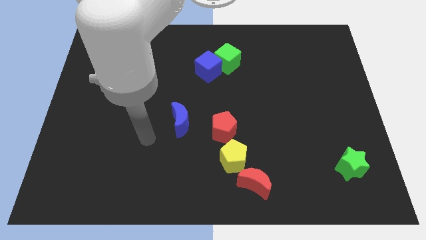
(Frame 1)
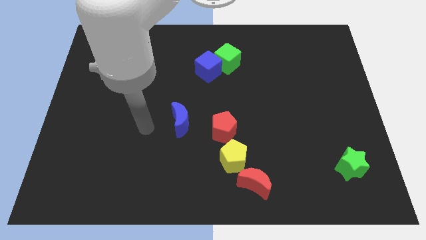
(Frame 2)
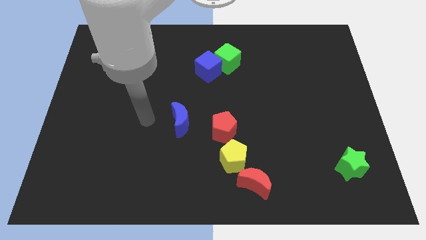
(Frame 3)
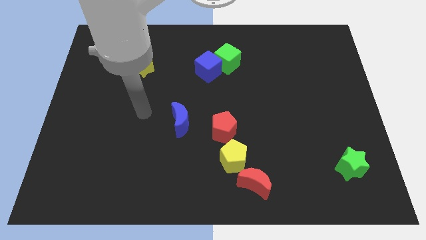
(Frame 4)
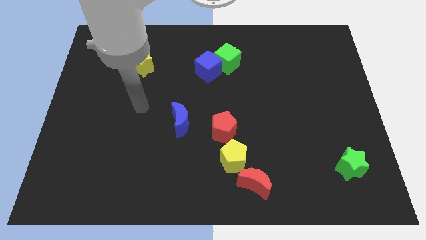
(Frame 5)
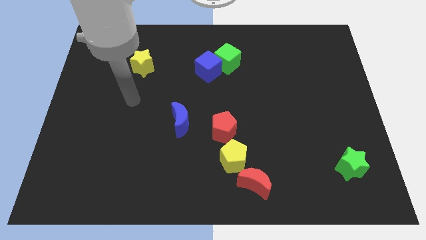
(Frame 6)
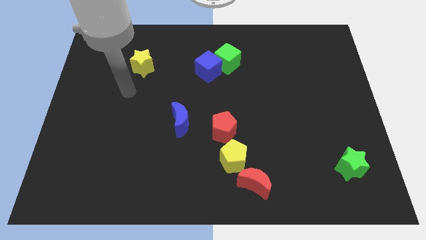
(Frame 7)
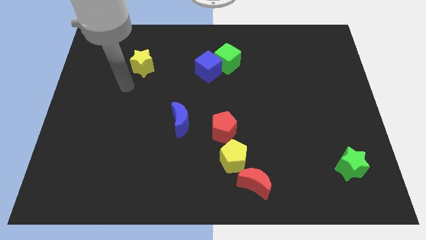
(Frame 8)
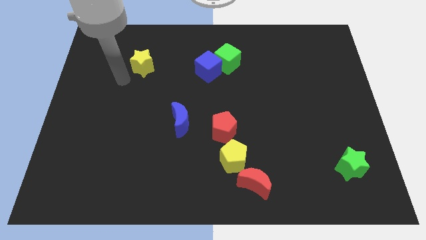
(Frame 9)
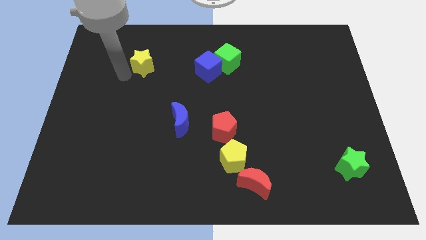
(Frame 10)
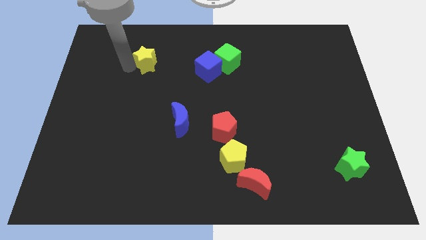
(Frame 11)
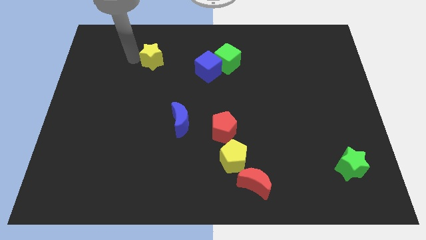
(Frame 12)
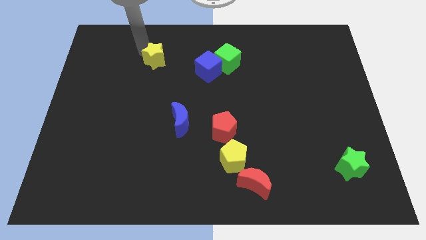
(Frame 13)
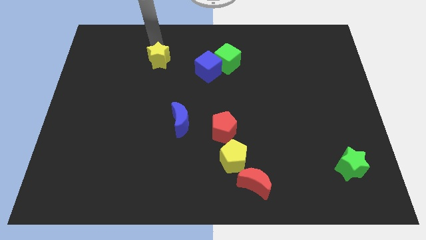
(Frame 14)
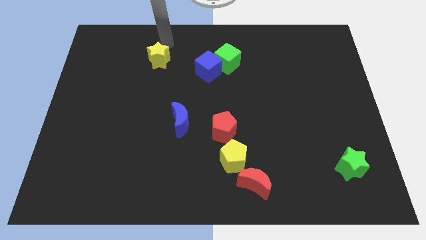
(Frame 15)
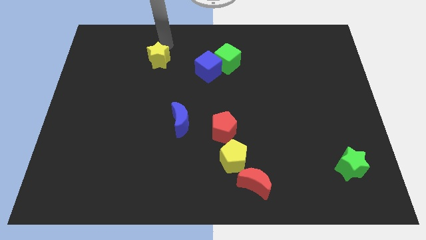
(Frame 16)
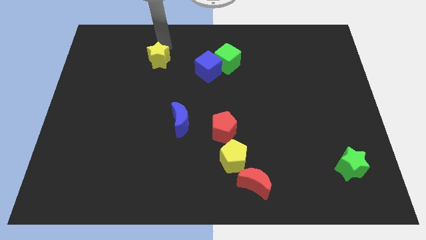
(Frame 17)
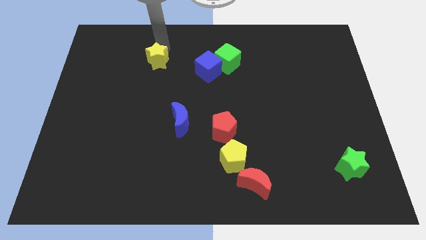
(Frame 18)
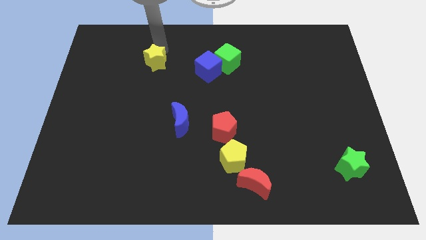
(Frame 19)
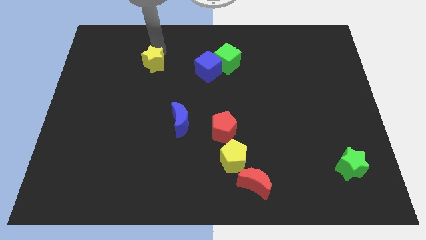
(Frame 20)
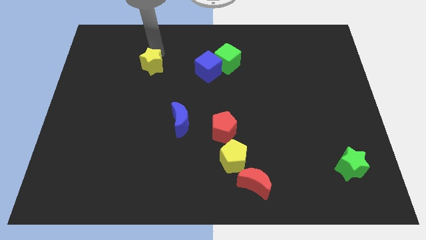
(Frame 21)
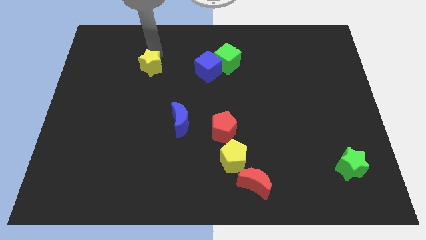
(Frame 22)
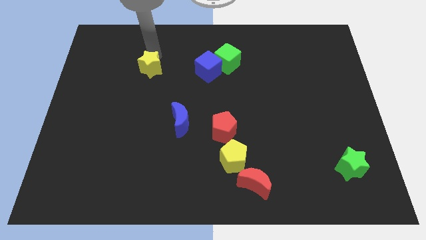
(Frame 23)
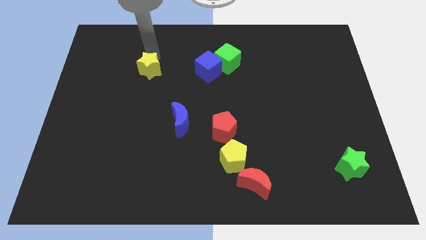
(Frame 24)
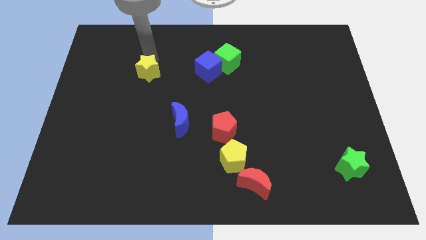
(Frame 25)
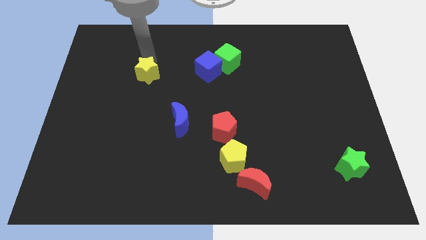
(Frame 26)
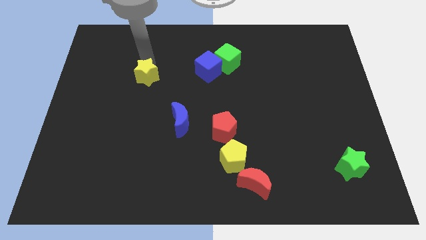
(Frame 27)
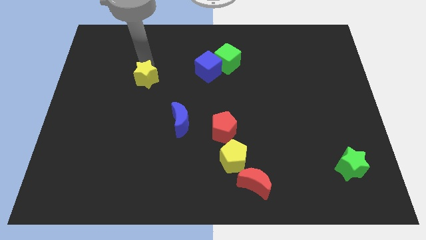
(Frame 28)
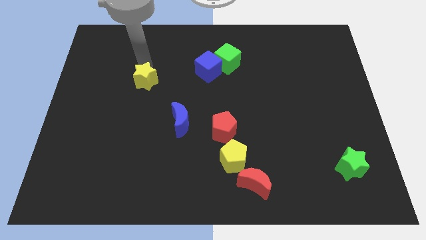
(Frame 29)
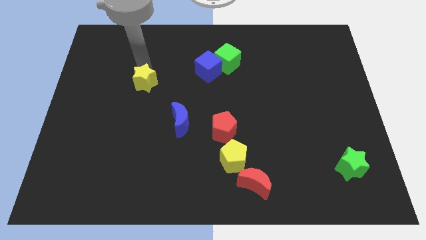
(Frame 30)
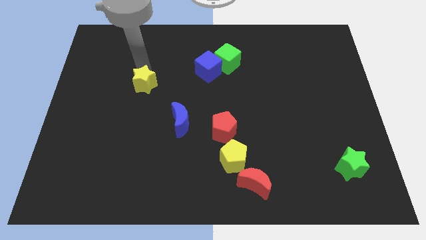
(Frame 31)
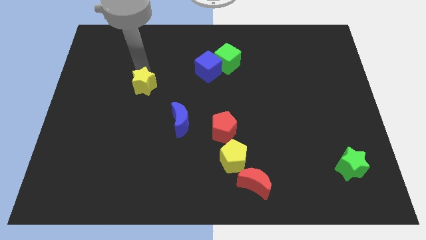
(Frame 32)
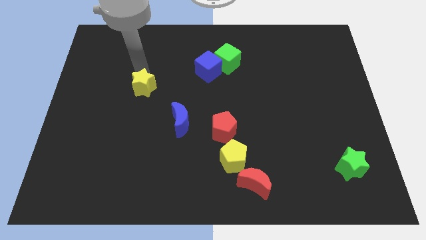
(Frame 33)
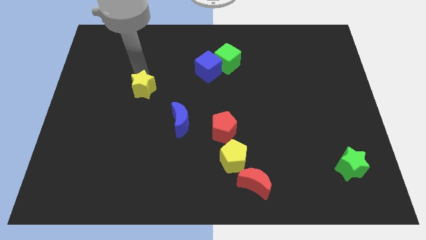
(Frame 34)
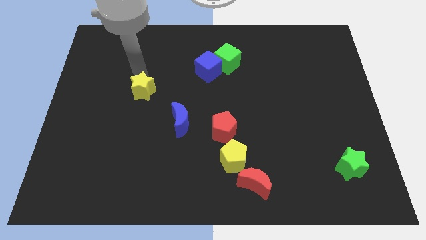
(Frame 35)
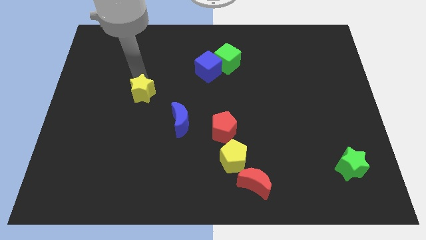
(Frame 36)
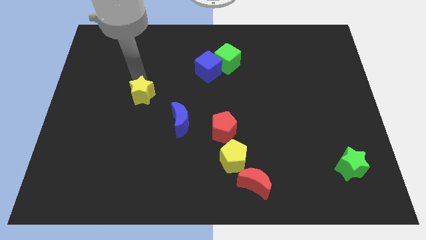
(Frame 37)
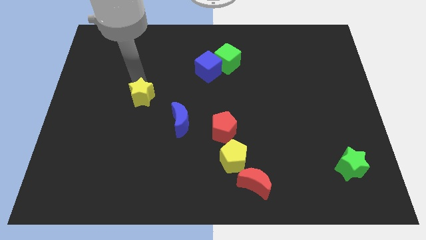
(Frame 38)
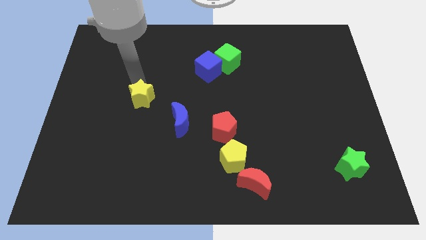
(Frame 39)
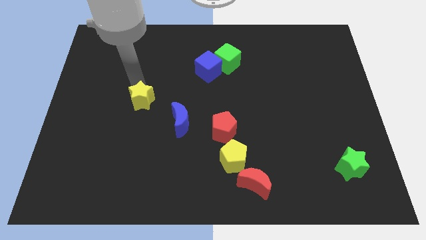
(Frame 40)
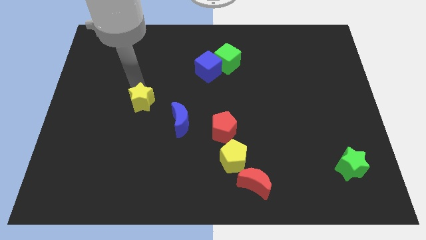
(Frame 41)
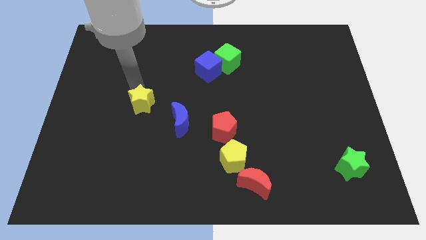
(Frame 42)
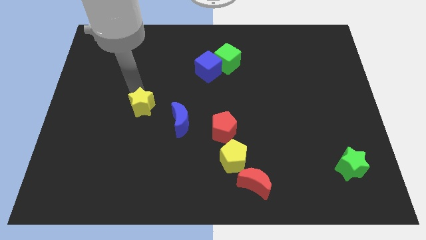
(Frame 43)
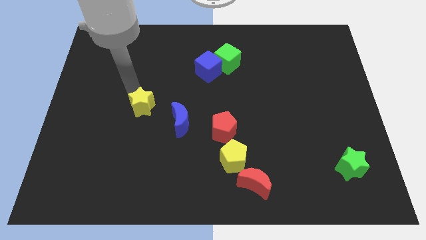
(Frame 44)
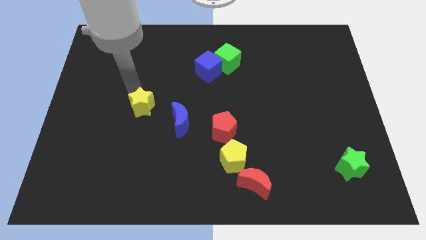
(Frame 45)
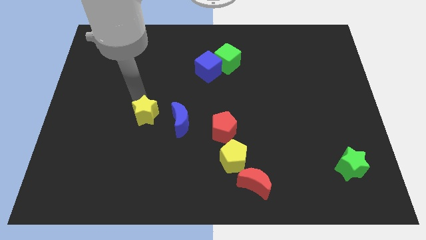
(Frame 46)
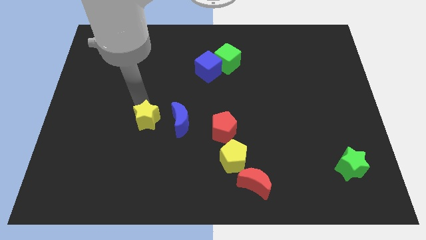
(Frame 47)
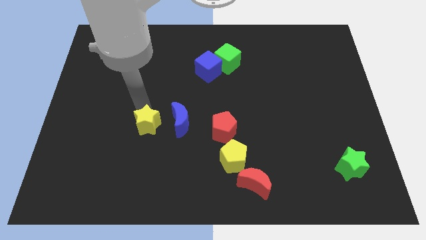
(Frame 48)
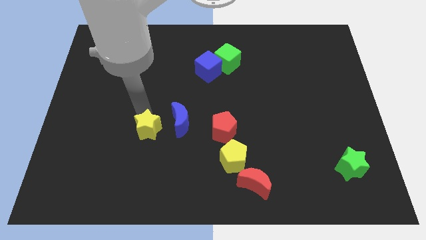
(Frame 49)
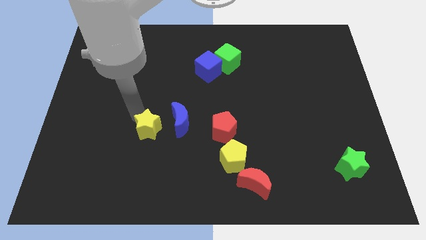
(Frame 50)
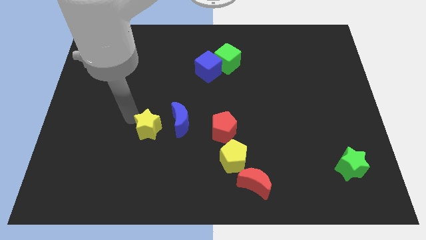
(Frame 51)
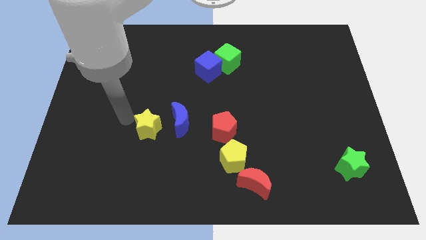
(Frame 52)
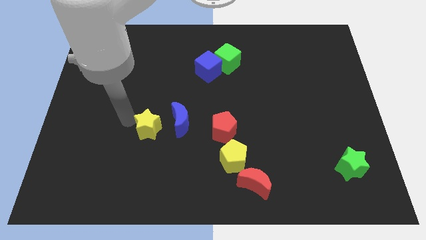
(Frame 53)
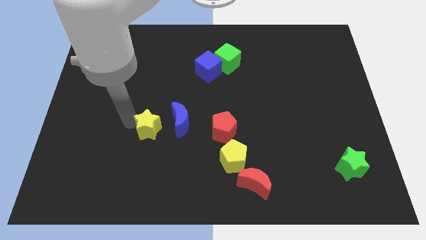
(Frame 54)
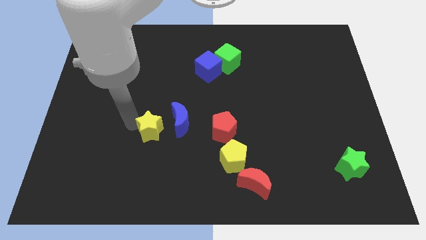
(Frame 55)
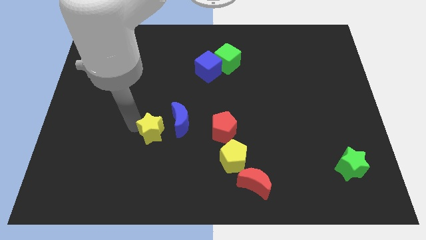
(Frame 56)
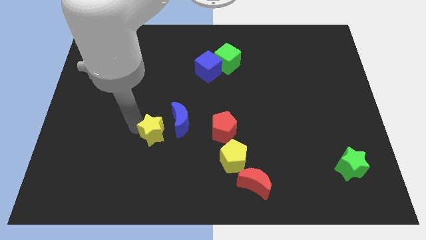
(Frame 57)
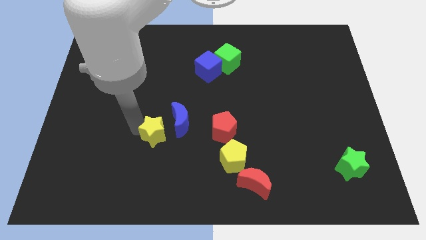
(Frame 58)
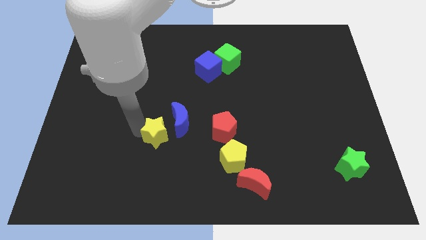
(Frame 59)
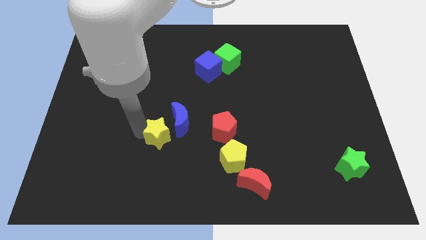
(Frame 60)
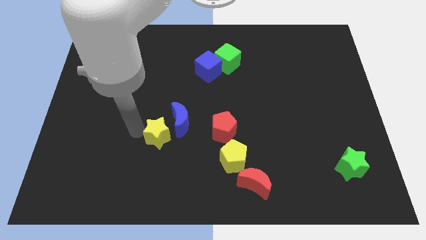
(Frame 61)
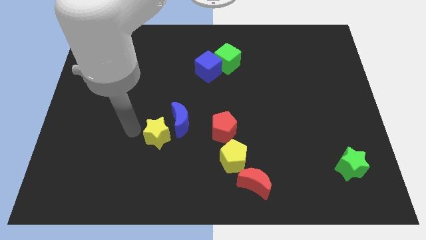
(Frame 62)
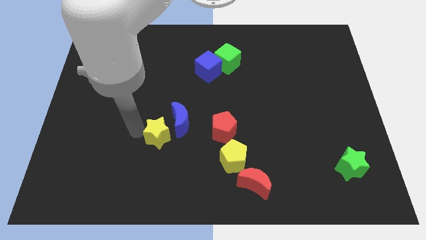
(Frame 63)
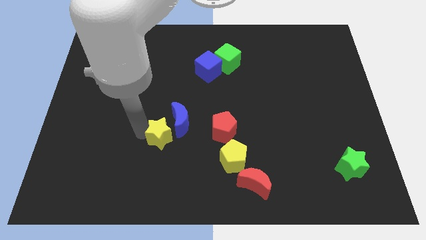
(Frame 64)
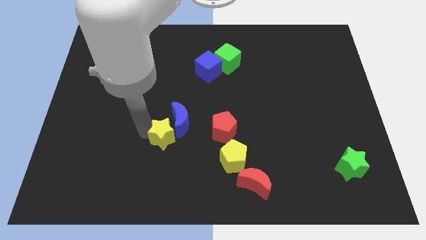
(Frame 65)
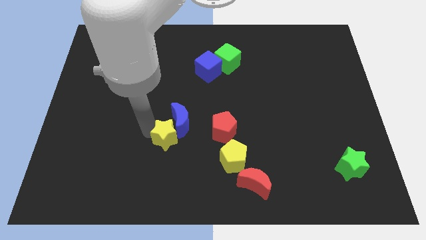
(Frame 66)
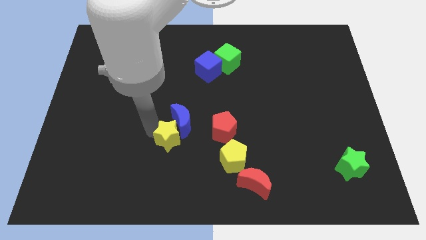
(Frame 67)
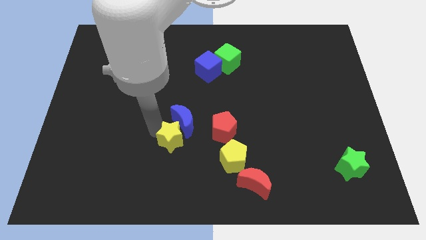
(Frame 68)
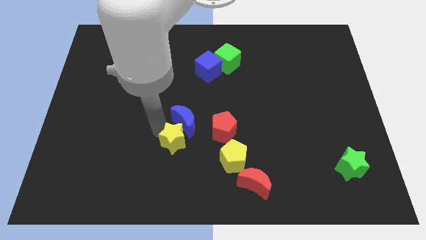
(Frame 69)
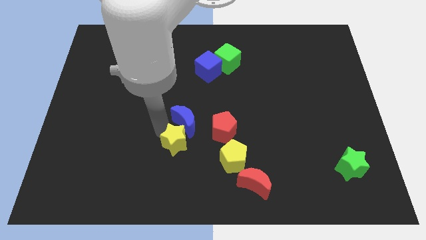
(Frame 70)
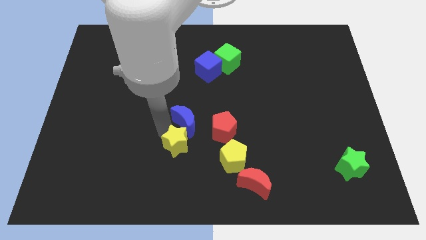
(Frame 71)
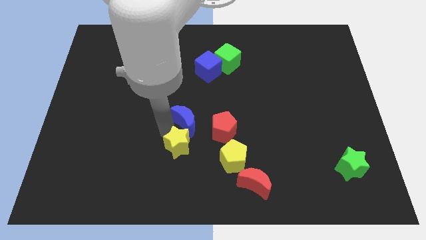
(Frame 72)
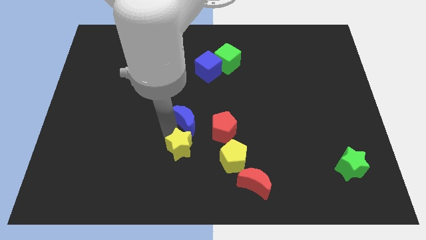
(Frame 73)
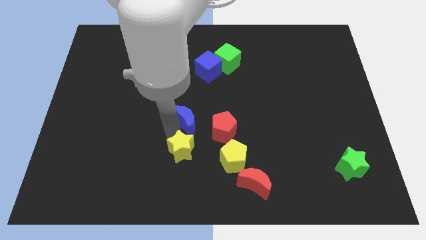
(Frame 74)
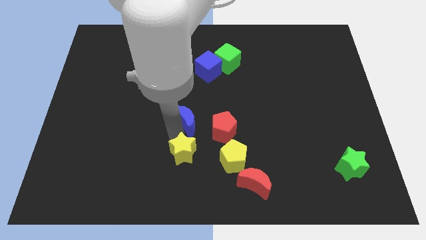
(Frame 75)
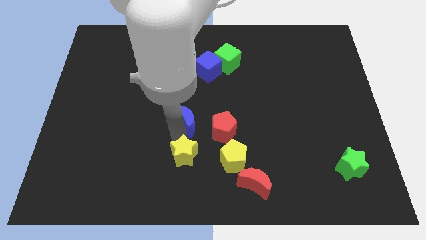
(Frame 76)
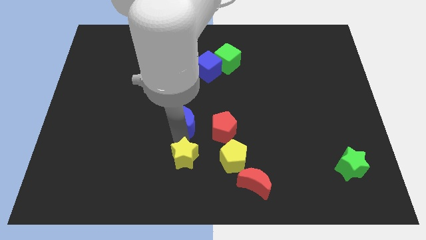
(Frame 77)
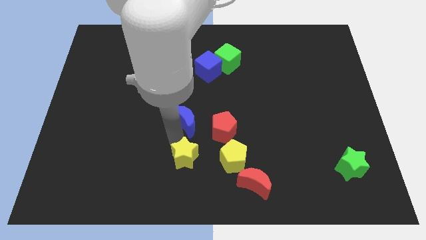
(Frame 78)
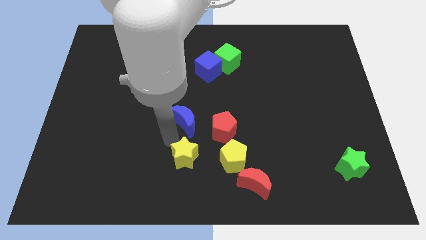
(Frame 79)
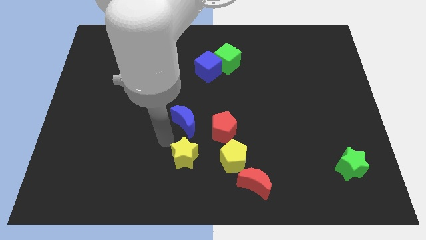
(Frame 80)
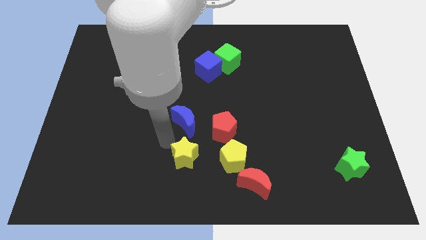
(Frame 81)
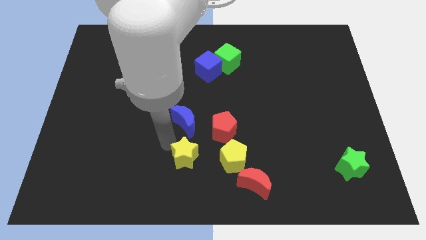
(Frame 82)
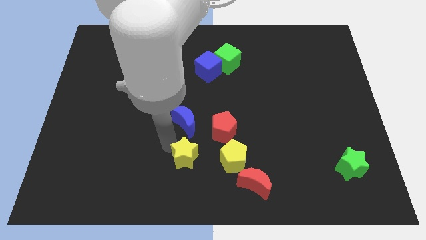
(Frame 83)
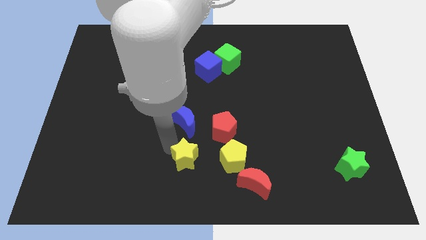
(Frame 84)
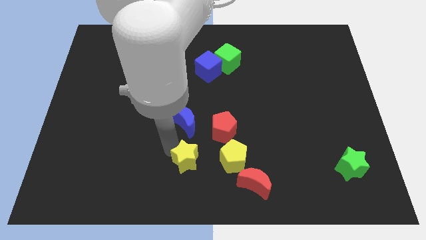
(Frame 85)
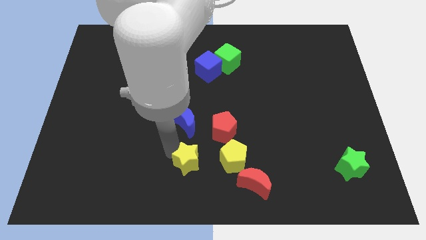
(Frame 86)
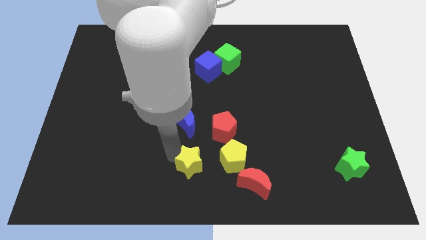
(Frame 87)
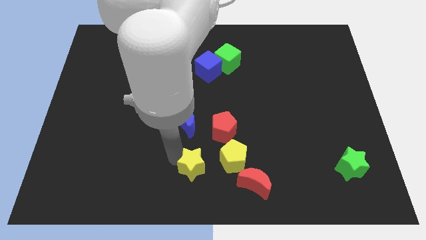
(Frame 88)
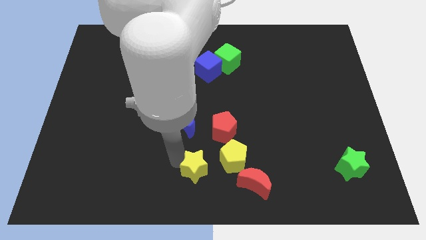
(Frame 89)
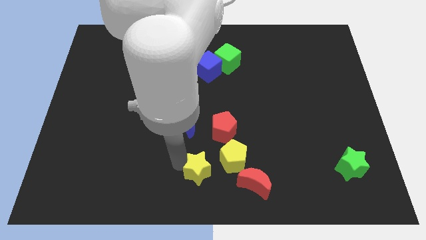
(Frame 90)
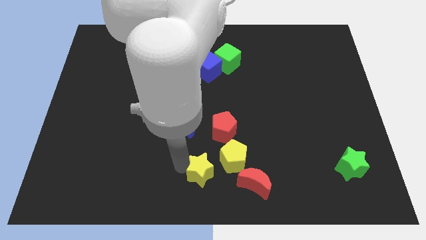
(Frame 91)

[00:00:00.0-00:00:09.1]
put the yellow star below the red pentagon
